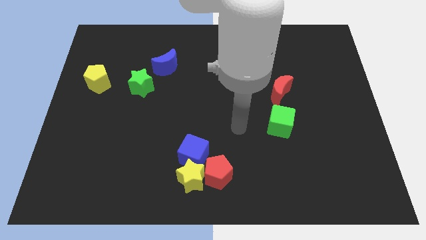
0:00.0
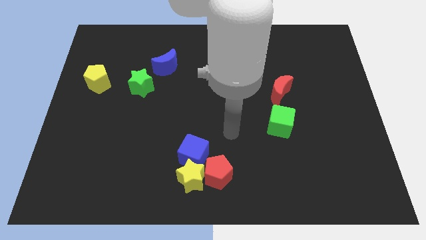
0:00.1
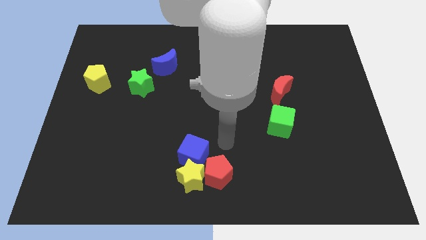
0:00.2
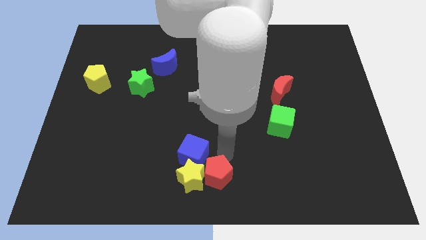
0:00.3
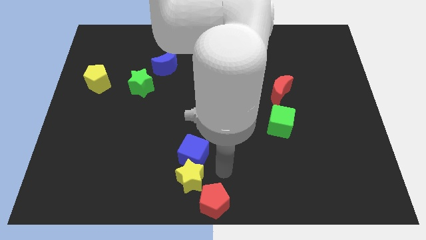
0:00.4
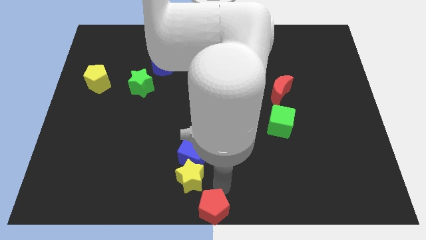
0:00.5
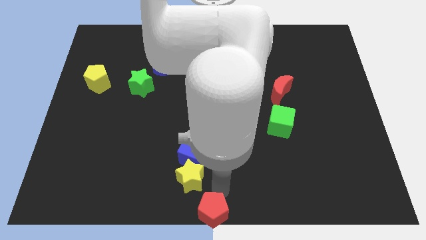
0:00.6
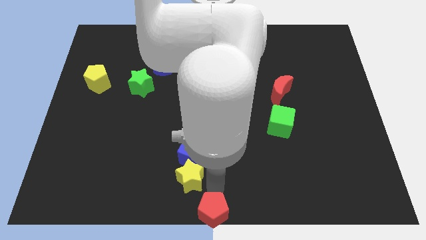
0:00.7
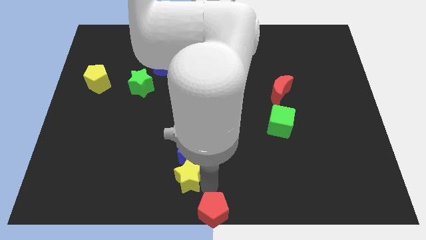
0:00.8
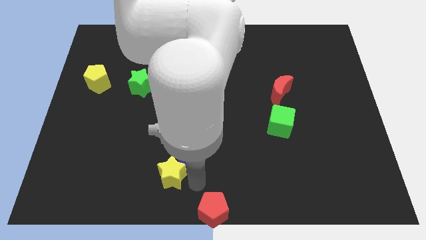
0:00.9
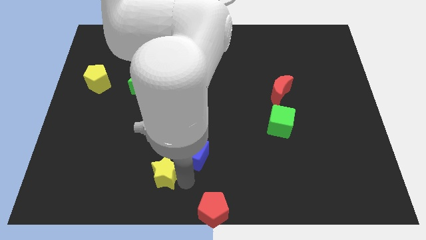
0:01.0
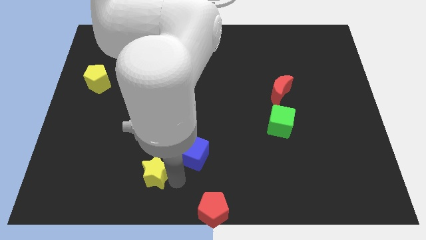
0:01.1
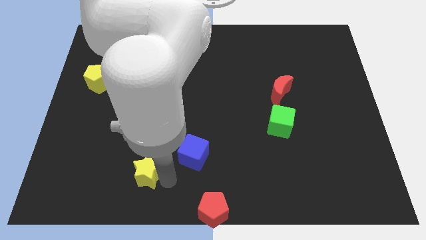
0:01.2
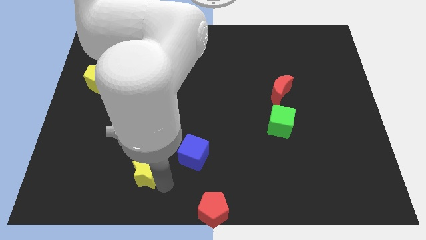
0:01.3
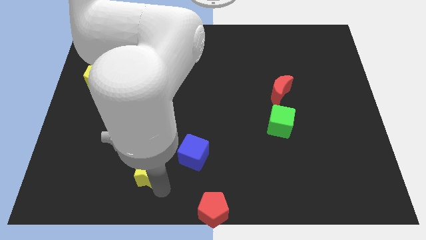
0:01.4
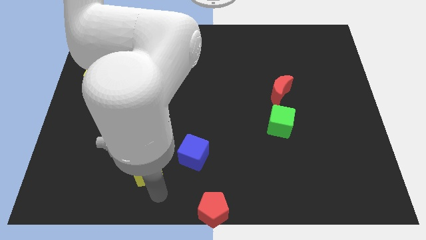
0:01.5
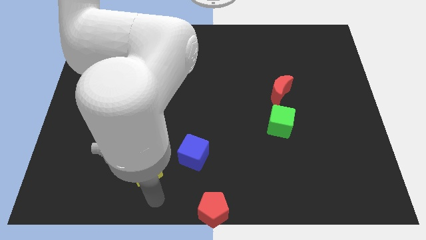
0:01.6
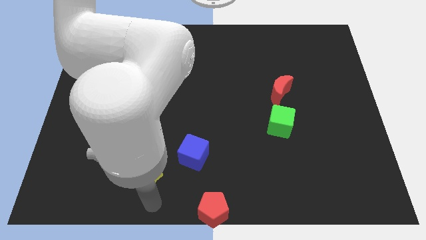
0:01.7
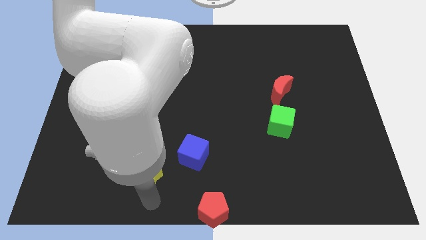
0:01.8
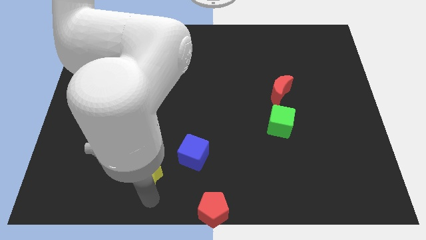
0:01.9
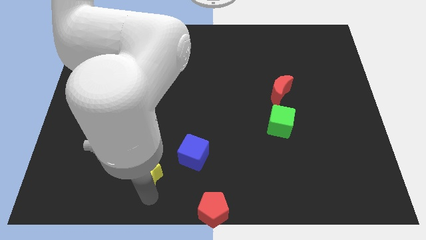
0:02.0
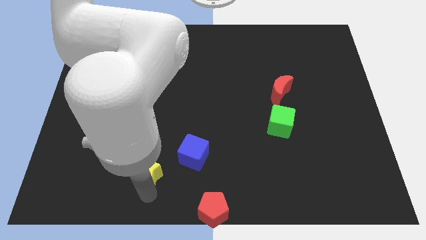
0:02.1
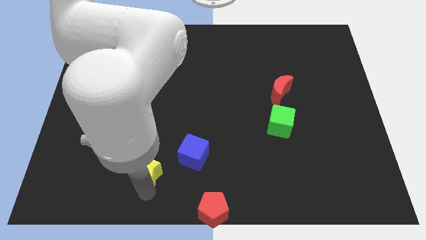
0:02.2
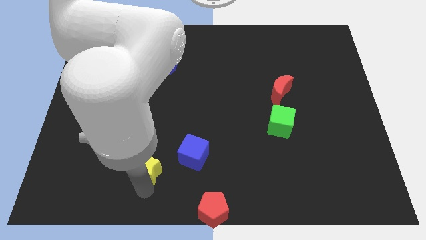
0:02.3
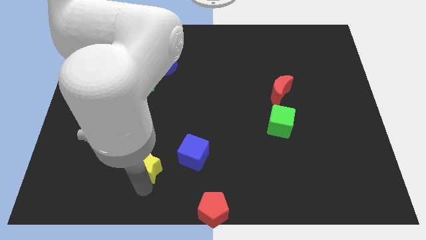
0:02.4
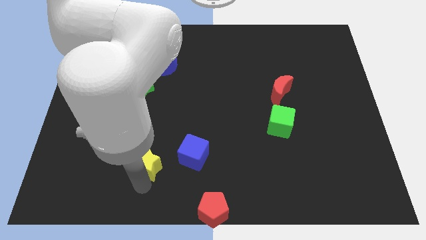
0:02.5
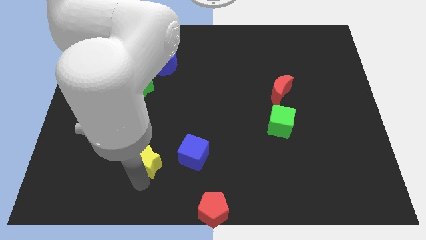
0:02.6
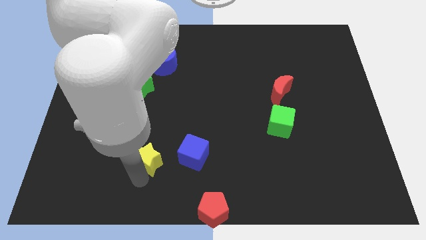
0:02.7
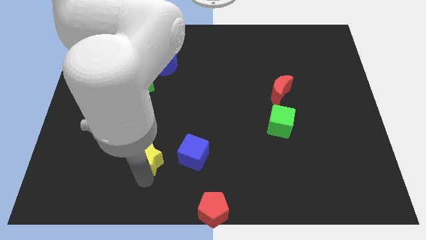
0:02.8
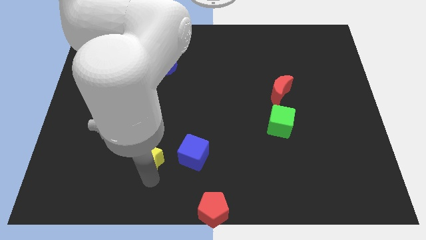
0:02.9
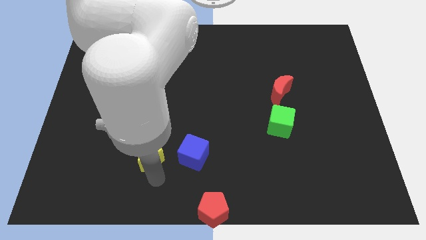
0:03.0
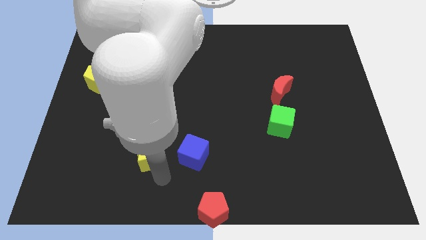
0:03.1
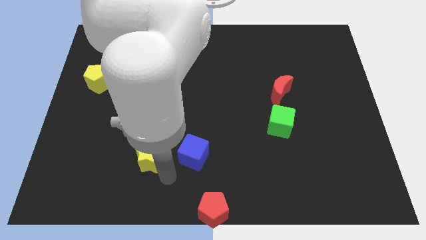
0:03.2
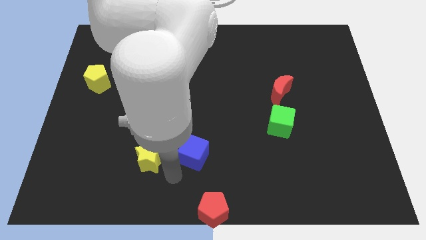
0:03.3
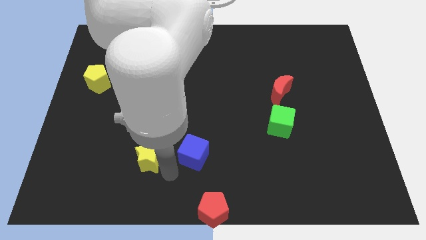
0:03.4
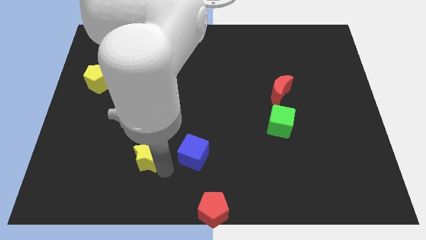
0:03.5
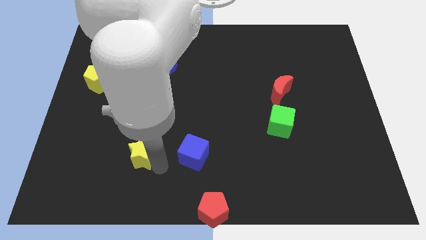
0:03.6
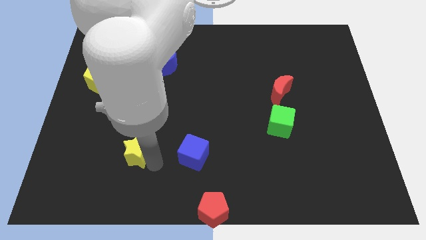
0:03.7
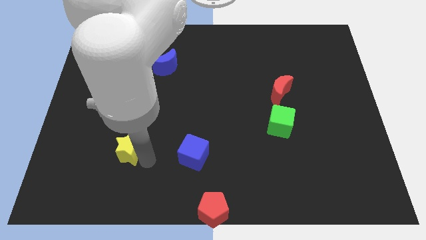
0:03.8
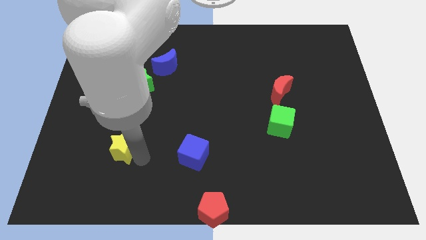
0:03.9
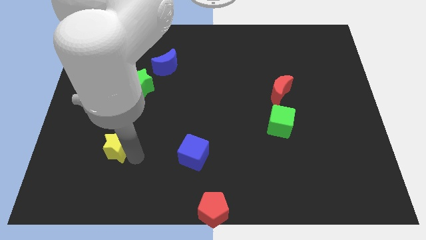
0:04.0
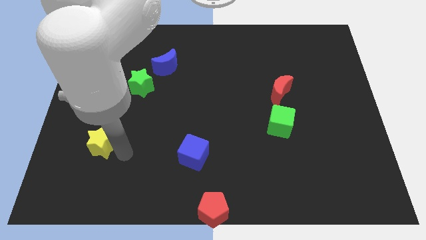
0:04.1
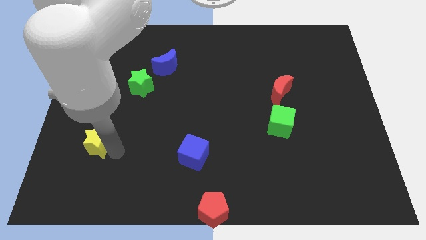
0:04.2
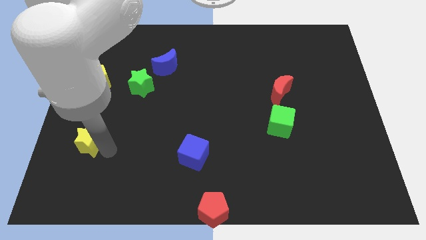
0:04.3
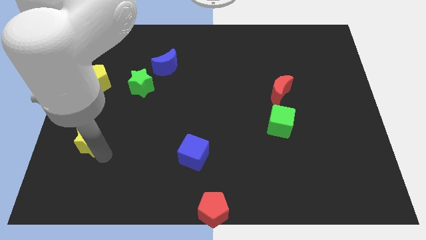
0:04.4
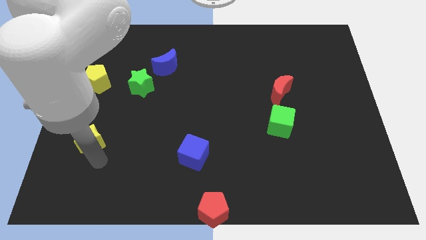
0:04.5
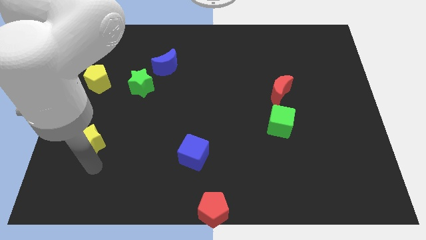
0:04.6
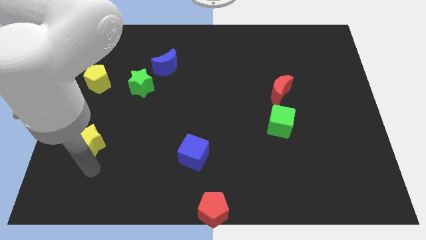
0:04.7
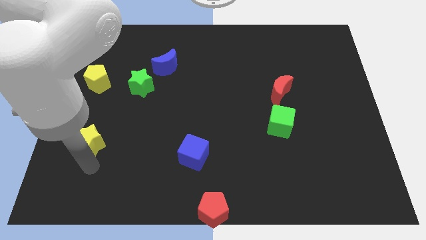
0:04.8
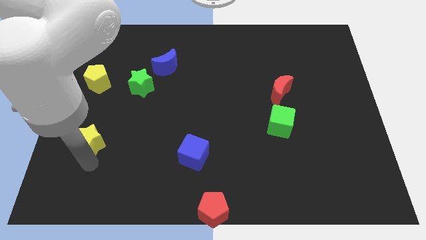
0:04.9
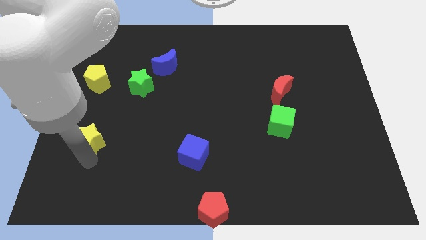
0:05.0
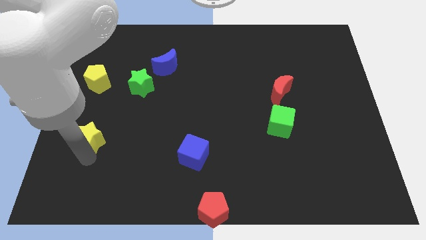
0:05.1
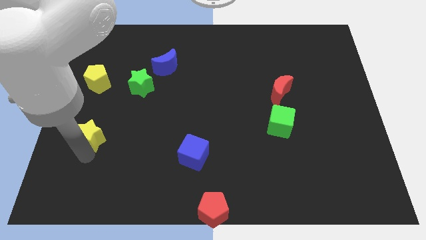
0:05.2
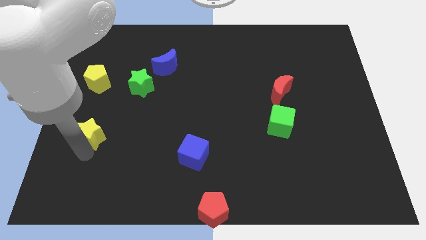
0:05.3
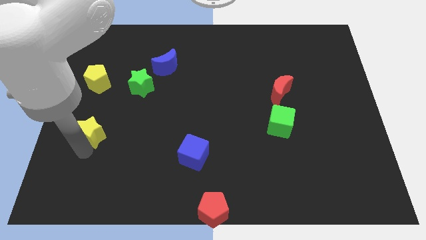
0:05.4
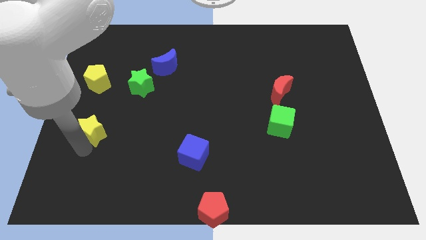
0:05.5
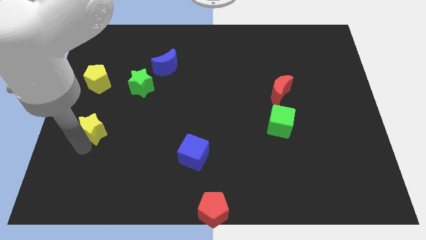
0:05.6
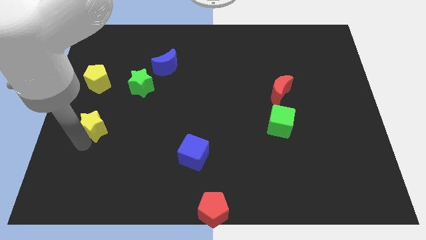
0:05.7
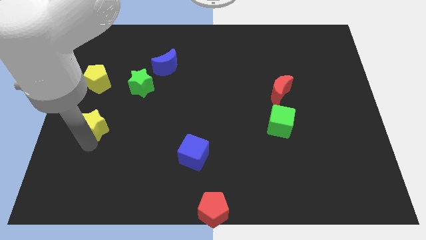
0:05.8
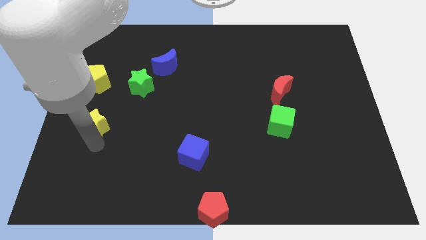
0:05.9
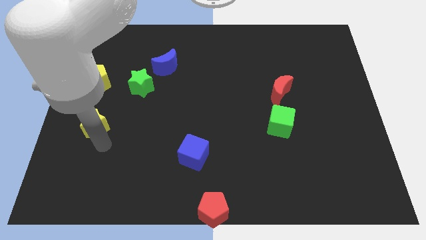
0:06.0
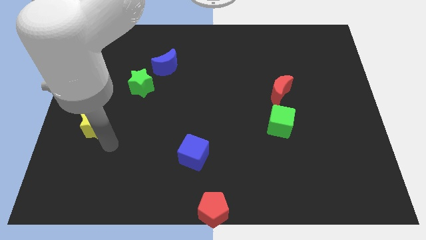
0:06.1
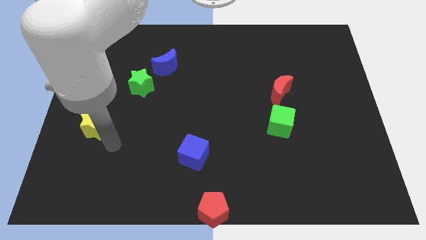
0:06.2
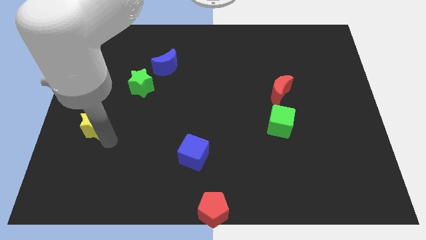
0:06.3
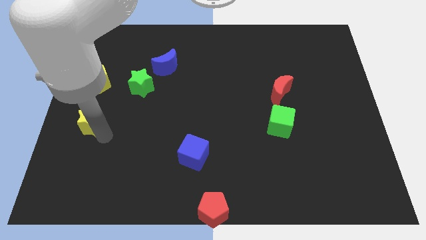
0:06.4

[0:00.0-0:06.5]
put the yellow star to the left side

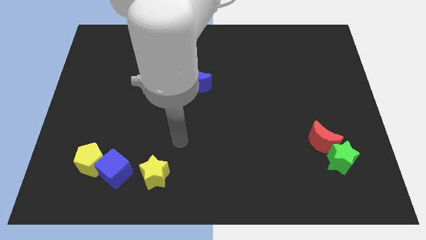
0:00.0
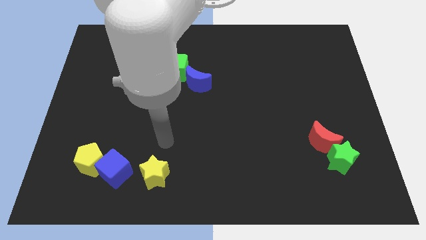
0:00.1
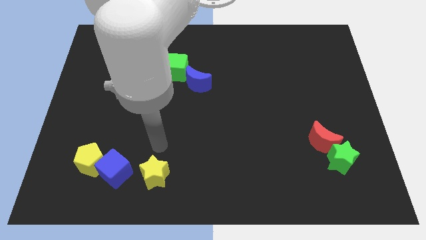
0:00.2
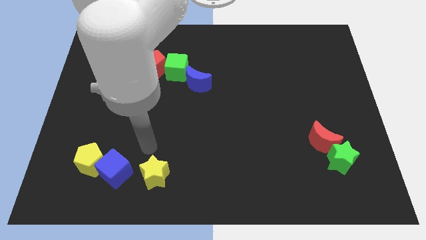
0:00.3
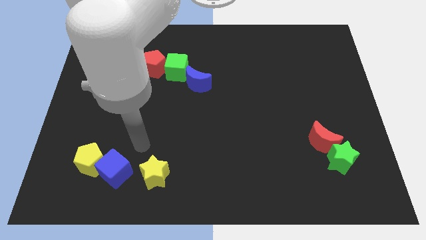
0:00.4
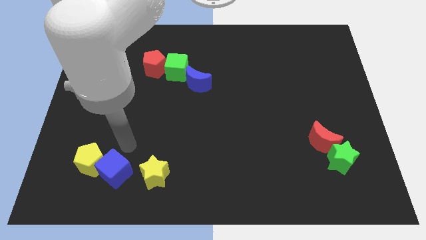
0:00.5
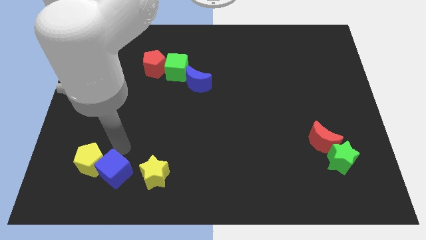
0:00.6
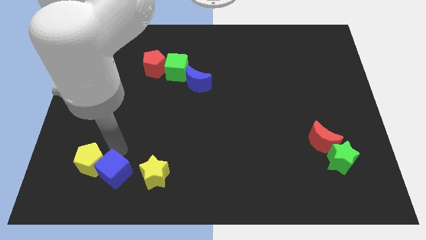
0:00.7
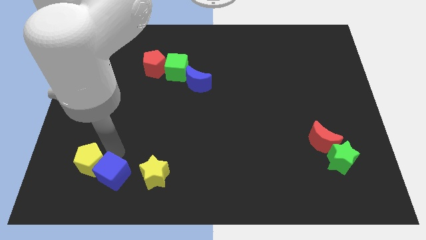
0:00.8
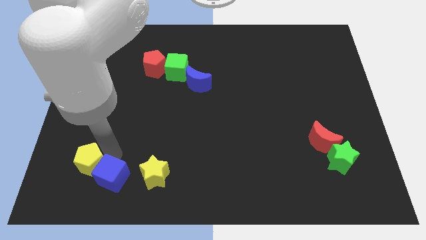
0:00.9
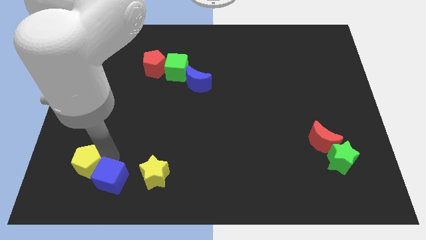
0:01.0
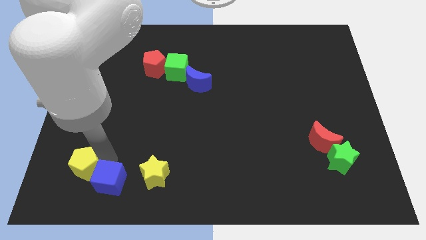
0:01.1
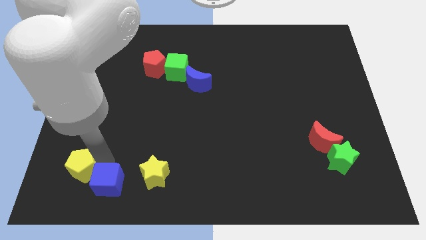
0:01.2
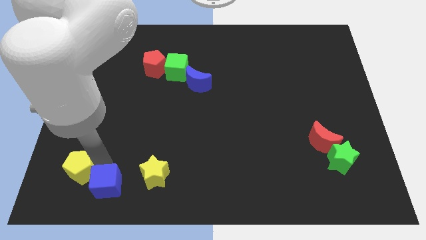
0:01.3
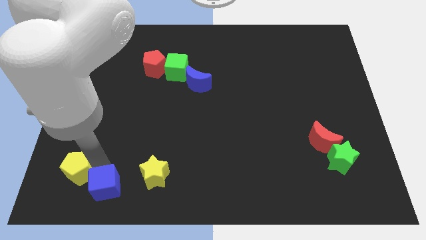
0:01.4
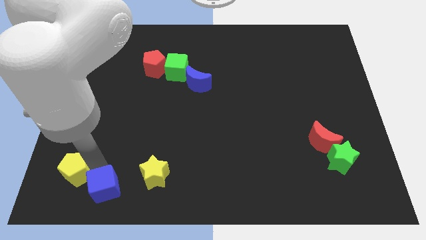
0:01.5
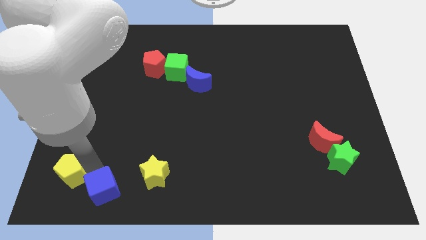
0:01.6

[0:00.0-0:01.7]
push the yellow pentagon to the bottom left of the board
